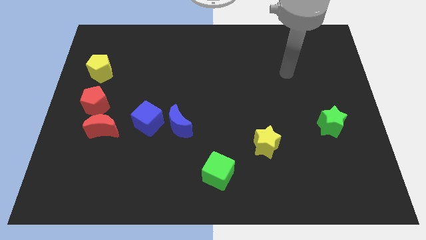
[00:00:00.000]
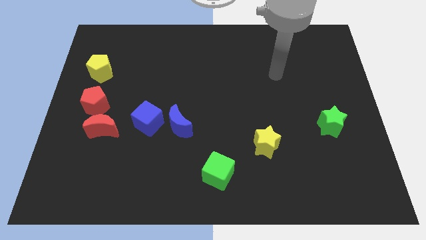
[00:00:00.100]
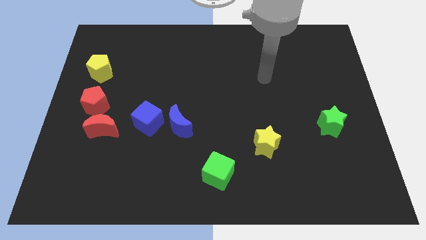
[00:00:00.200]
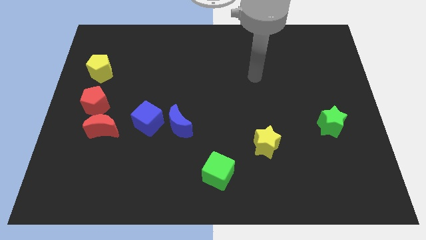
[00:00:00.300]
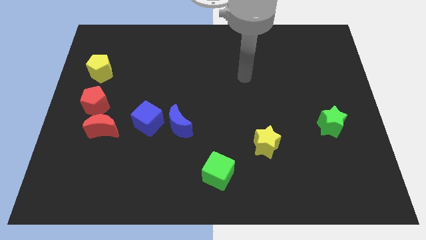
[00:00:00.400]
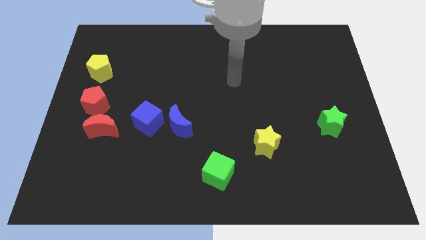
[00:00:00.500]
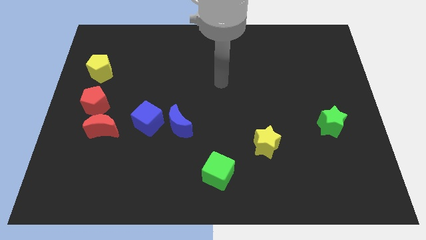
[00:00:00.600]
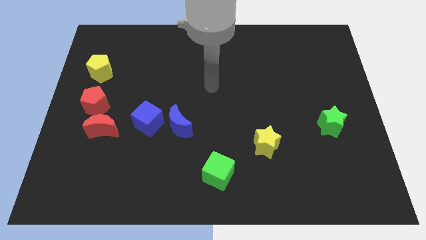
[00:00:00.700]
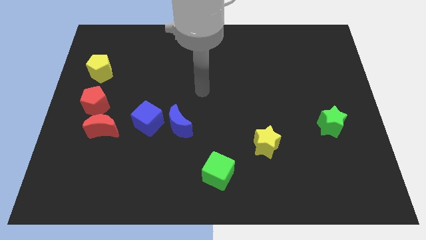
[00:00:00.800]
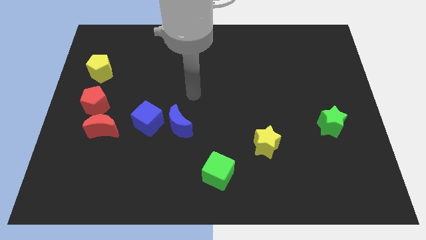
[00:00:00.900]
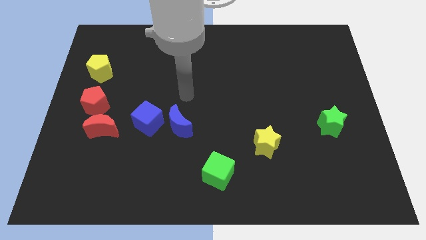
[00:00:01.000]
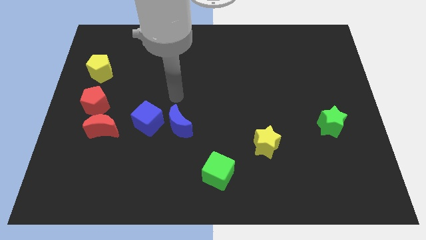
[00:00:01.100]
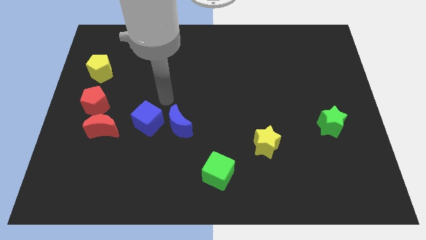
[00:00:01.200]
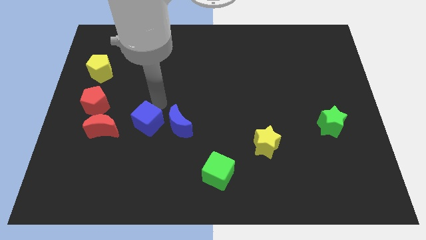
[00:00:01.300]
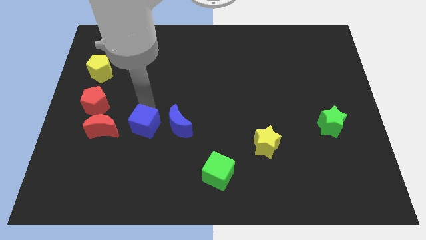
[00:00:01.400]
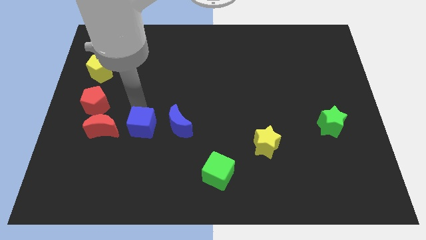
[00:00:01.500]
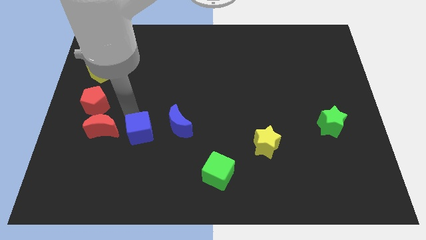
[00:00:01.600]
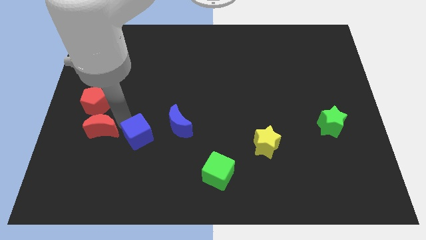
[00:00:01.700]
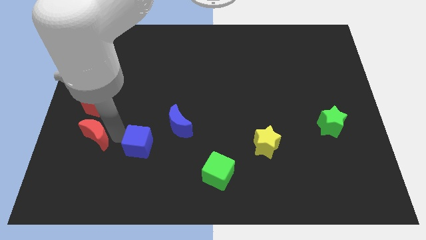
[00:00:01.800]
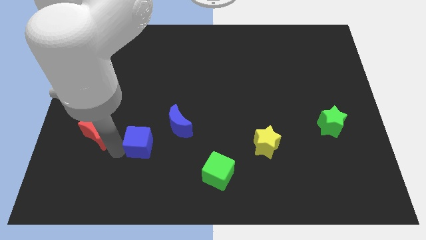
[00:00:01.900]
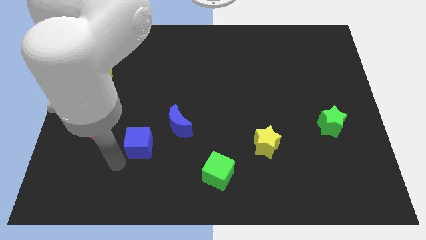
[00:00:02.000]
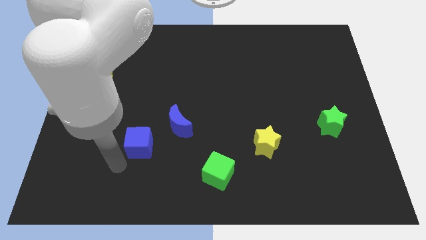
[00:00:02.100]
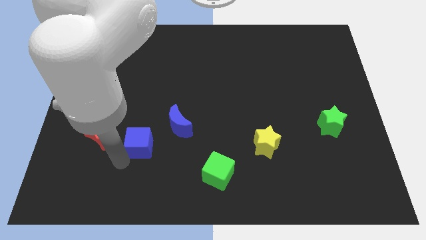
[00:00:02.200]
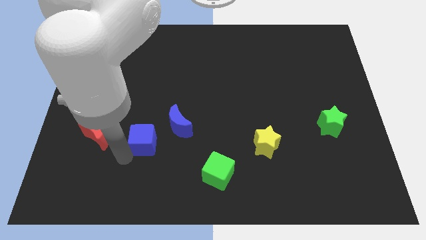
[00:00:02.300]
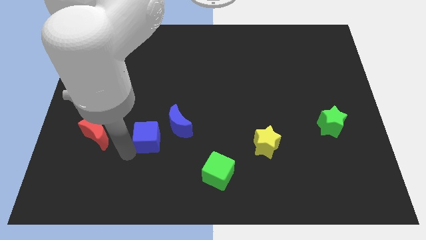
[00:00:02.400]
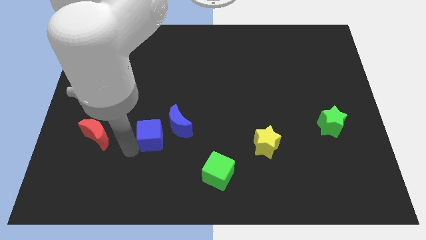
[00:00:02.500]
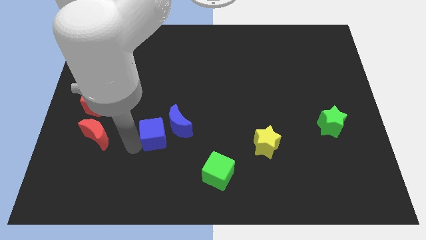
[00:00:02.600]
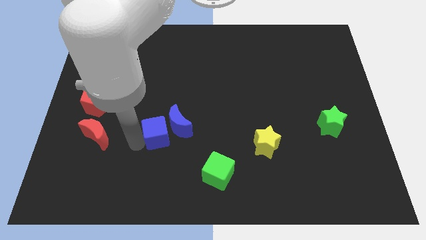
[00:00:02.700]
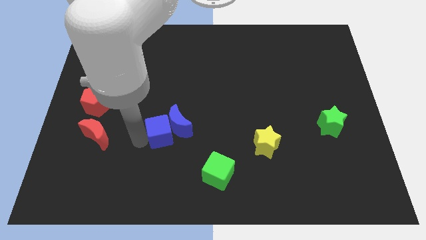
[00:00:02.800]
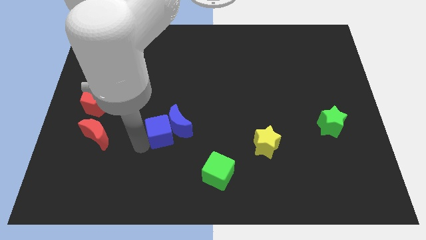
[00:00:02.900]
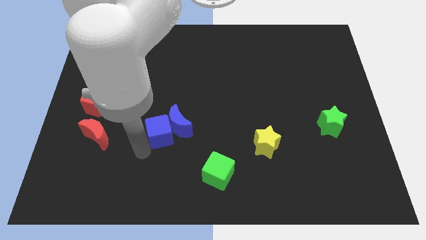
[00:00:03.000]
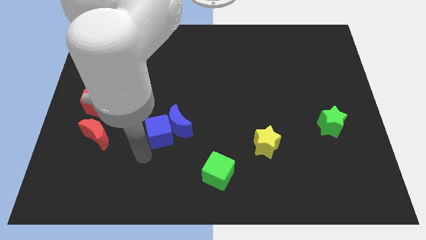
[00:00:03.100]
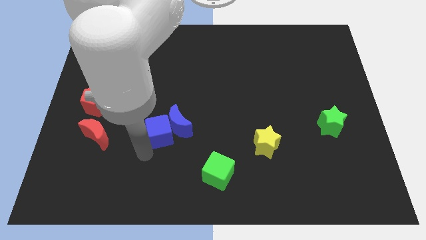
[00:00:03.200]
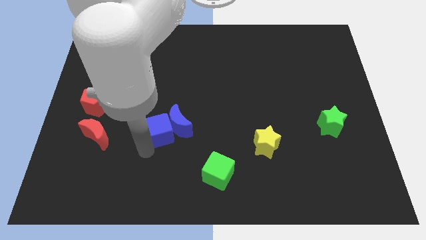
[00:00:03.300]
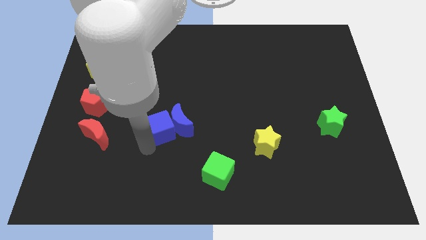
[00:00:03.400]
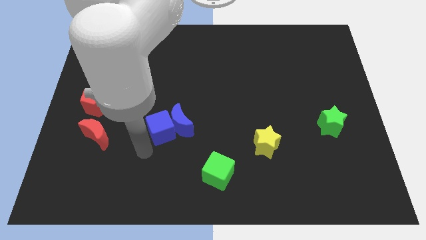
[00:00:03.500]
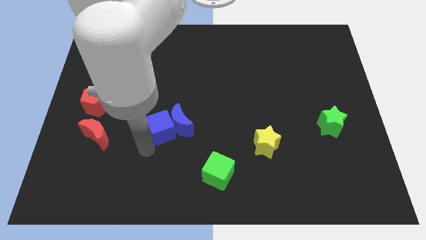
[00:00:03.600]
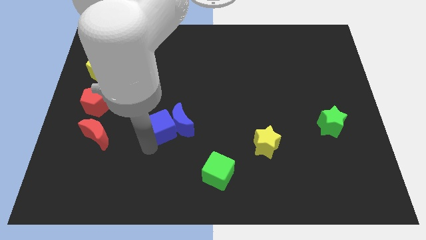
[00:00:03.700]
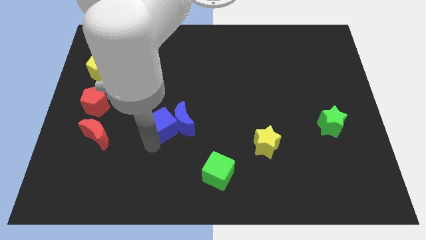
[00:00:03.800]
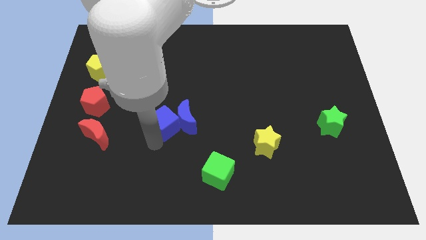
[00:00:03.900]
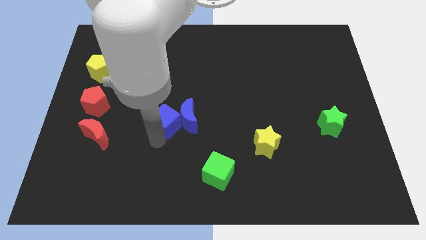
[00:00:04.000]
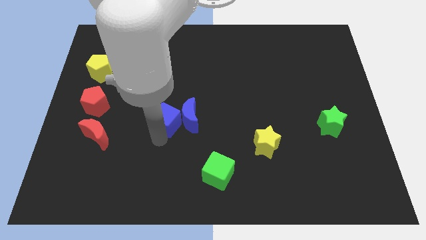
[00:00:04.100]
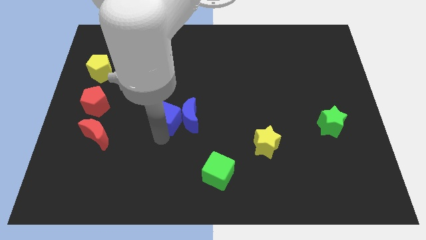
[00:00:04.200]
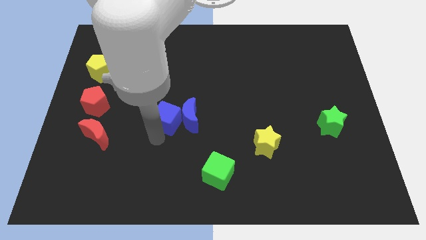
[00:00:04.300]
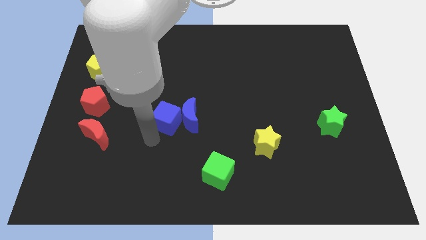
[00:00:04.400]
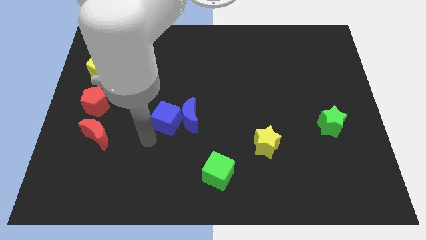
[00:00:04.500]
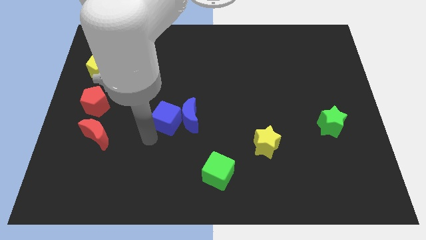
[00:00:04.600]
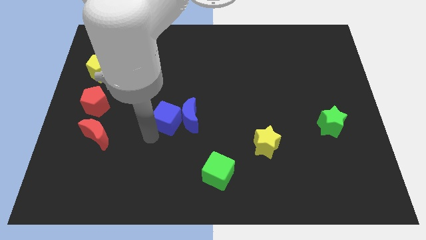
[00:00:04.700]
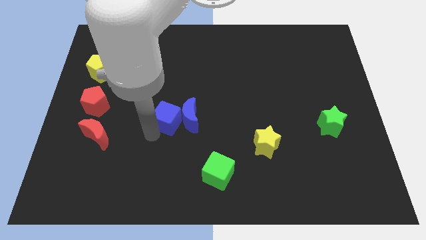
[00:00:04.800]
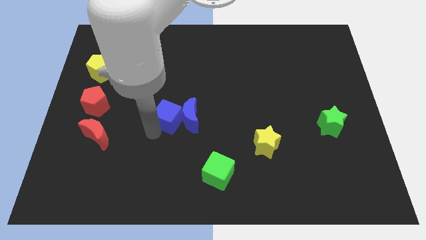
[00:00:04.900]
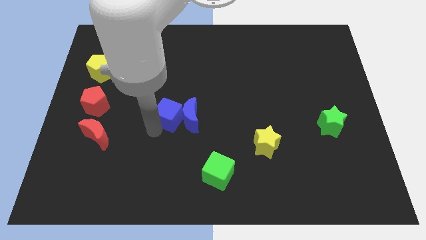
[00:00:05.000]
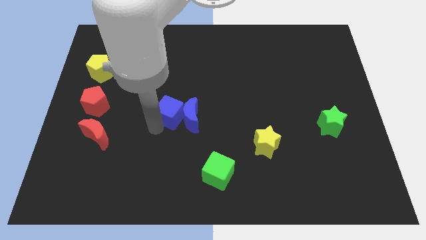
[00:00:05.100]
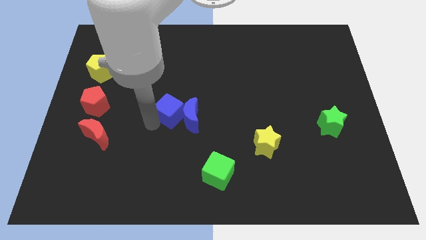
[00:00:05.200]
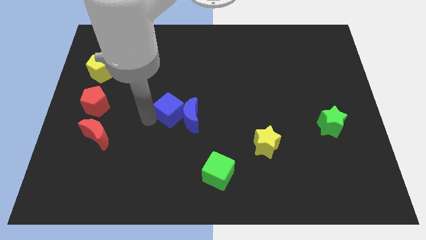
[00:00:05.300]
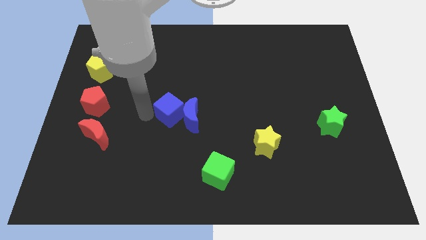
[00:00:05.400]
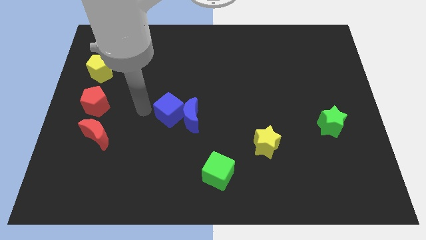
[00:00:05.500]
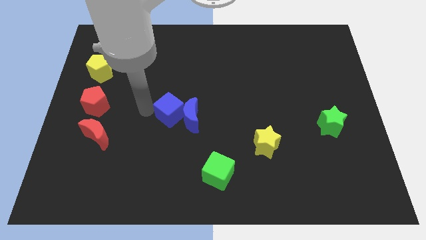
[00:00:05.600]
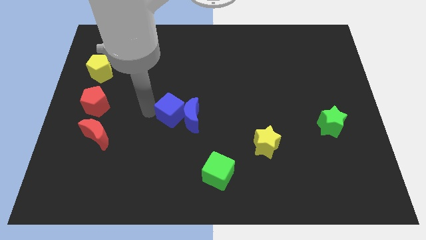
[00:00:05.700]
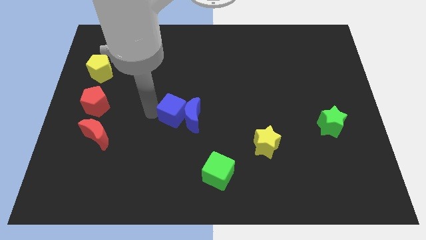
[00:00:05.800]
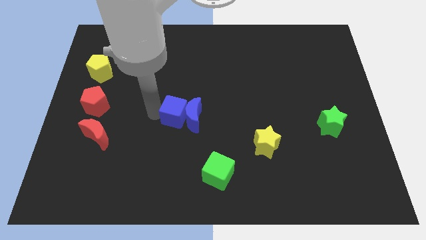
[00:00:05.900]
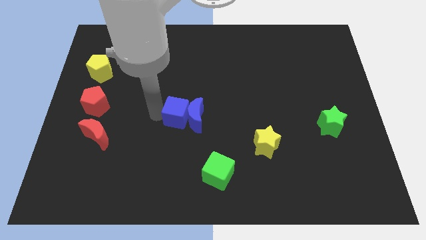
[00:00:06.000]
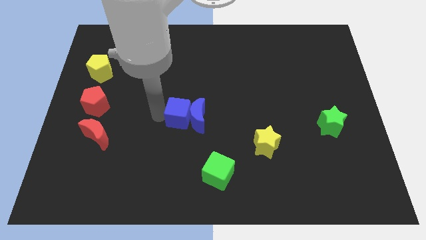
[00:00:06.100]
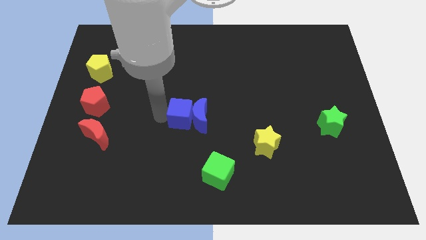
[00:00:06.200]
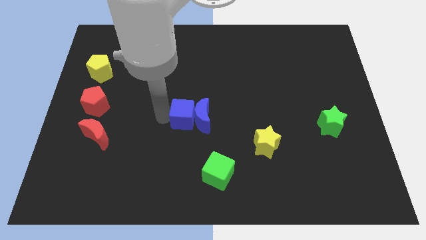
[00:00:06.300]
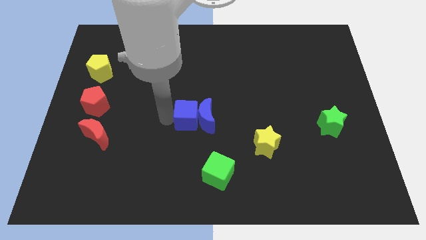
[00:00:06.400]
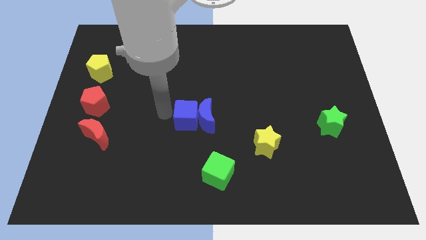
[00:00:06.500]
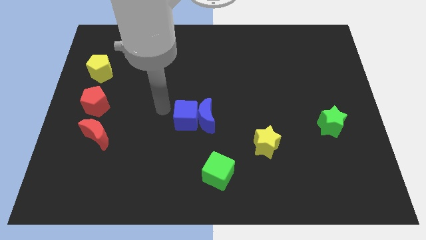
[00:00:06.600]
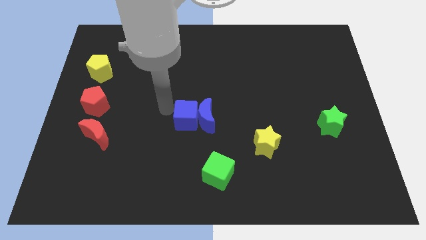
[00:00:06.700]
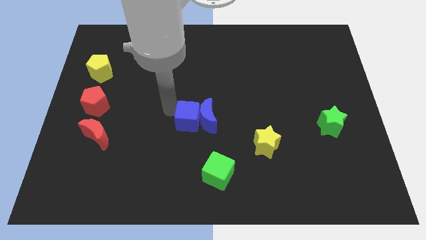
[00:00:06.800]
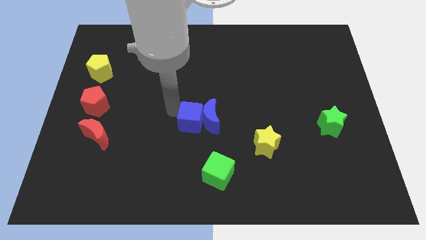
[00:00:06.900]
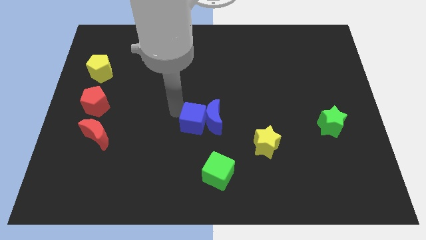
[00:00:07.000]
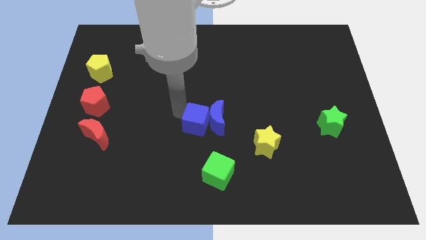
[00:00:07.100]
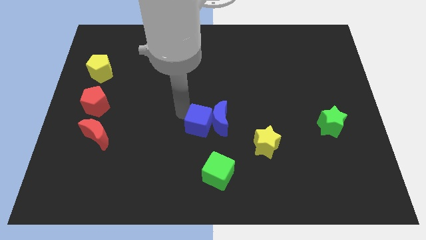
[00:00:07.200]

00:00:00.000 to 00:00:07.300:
slide the blue cube to the top of the green cube
